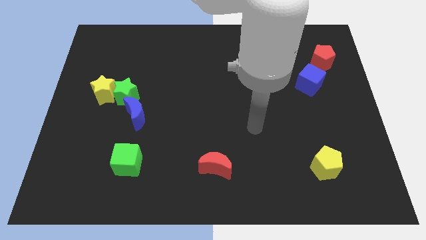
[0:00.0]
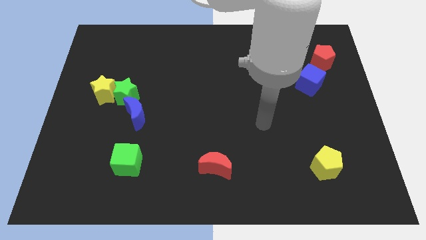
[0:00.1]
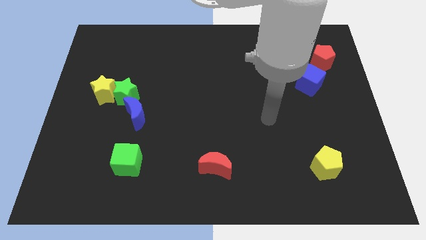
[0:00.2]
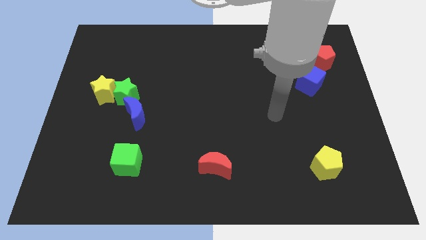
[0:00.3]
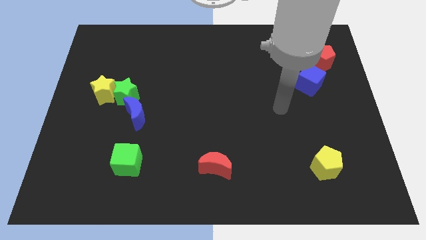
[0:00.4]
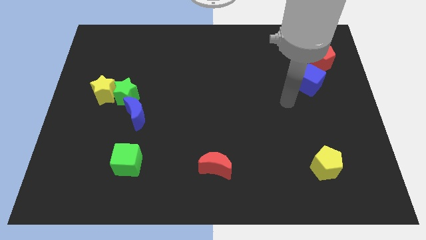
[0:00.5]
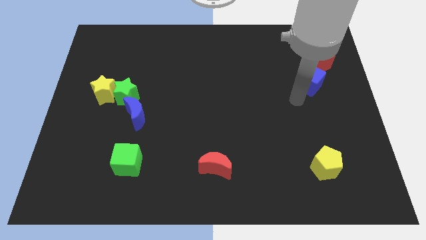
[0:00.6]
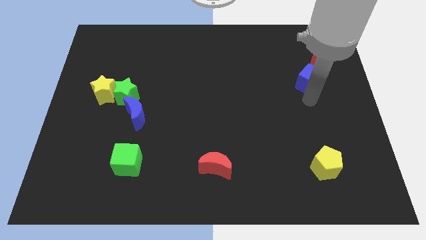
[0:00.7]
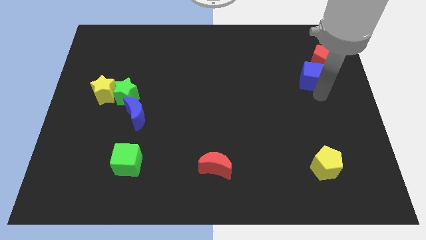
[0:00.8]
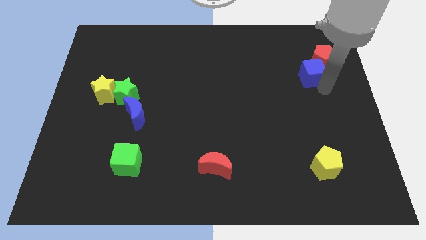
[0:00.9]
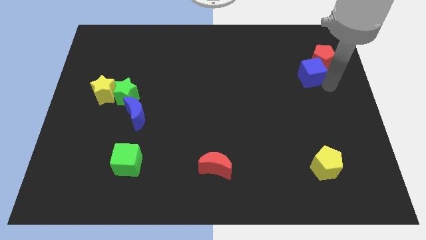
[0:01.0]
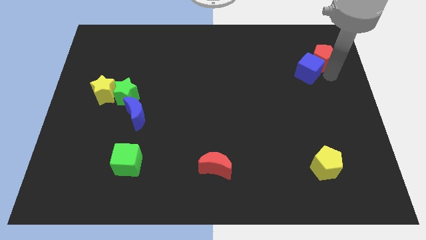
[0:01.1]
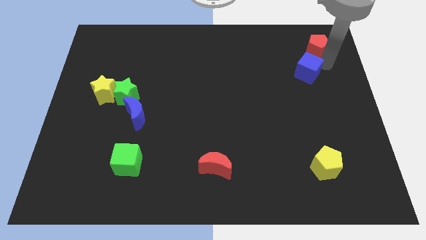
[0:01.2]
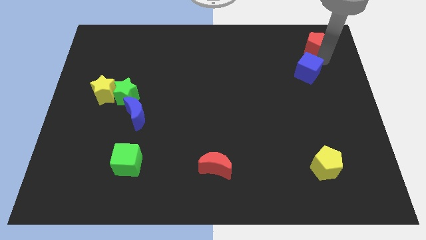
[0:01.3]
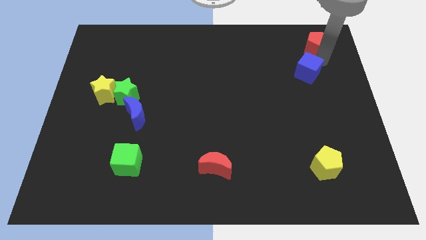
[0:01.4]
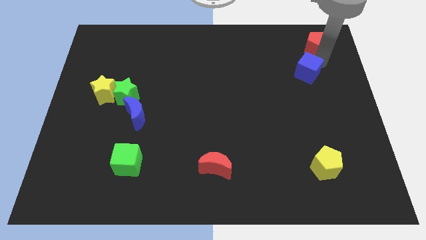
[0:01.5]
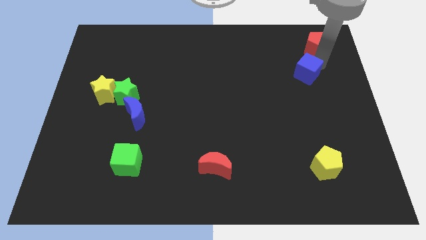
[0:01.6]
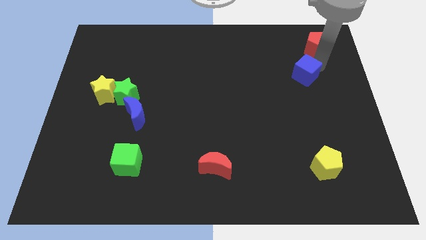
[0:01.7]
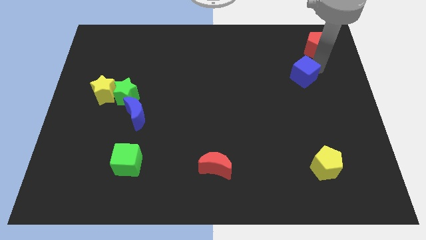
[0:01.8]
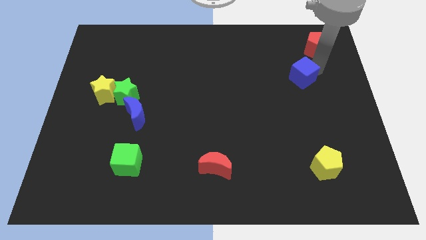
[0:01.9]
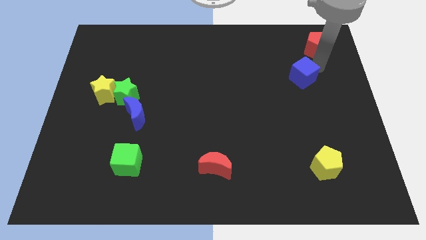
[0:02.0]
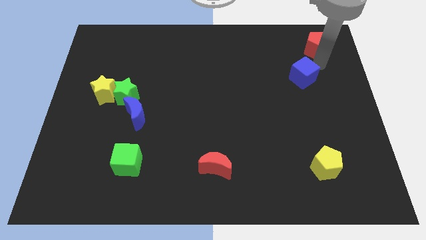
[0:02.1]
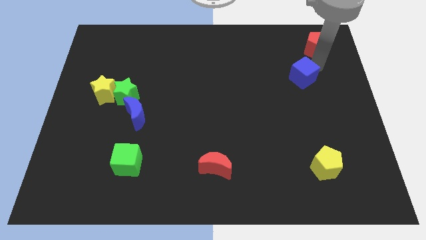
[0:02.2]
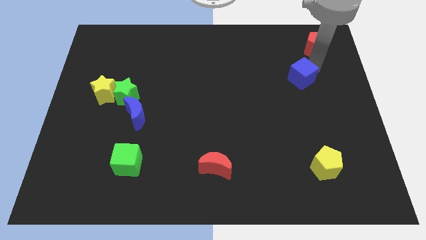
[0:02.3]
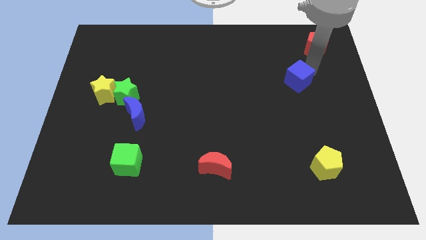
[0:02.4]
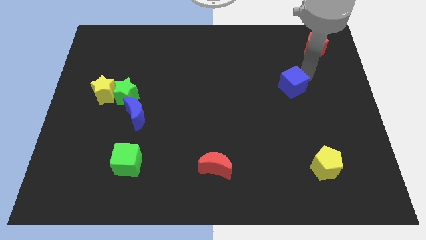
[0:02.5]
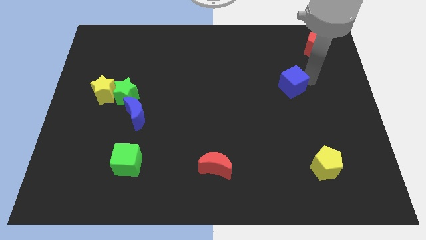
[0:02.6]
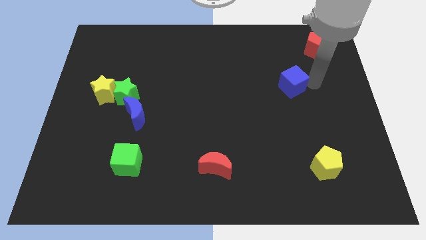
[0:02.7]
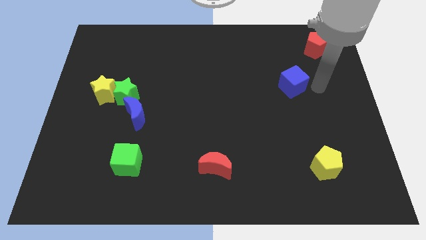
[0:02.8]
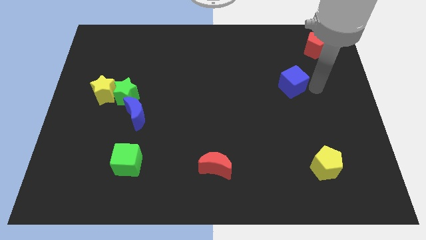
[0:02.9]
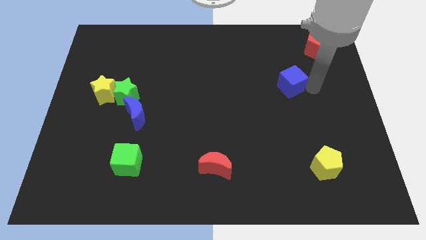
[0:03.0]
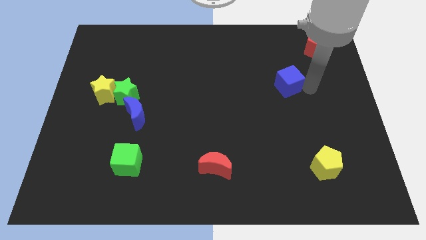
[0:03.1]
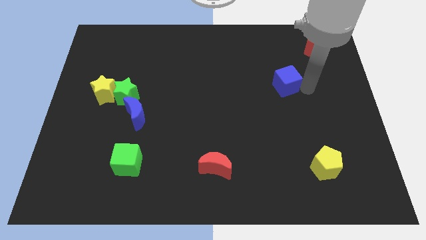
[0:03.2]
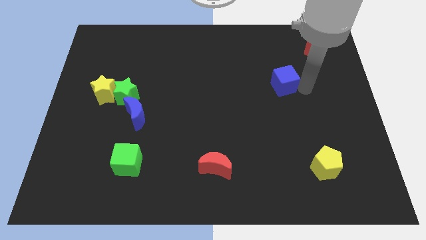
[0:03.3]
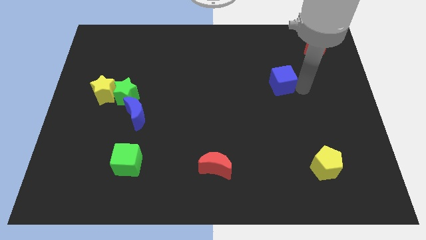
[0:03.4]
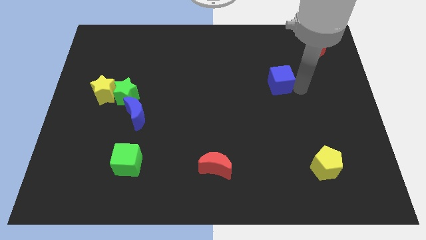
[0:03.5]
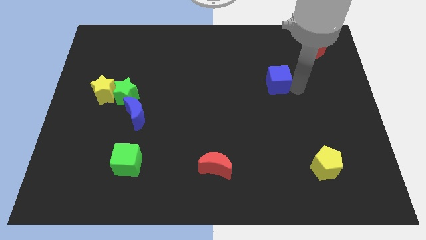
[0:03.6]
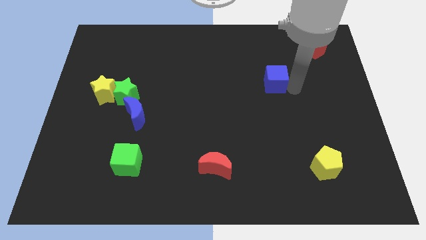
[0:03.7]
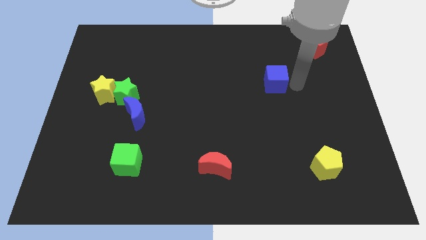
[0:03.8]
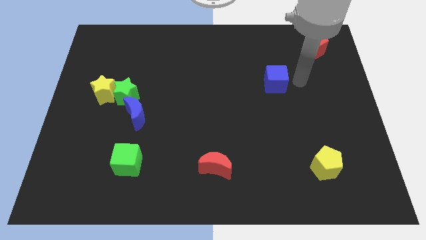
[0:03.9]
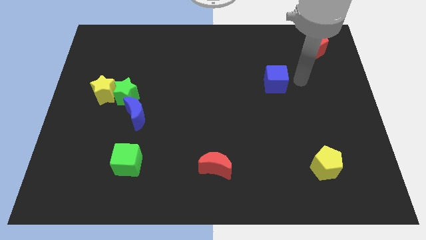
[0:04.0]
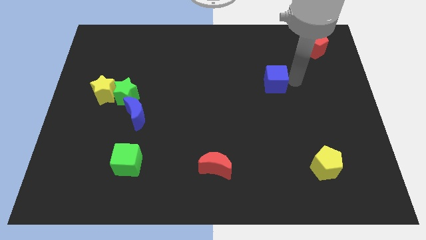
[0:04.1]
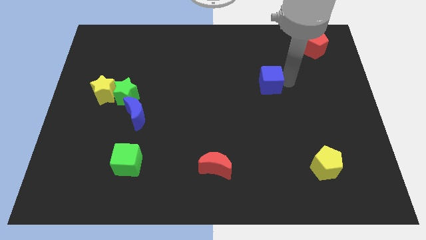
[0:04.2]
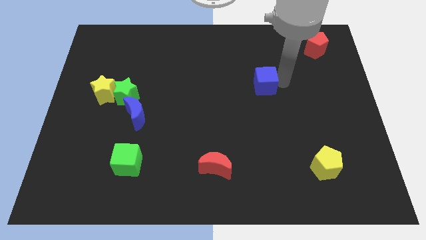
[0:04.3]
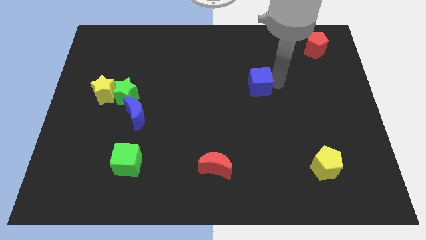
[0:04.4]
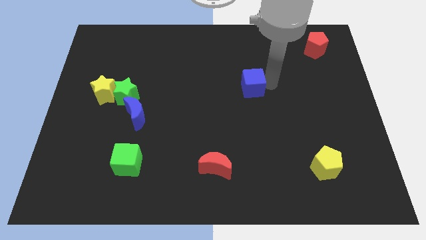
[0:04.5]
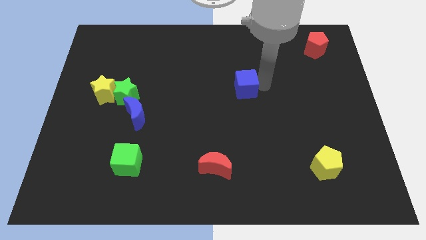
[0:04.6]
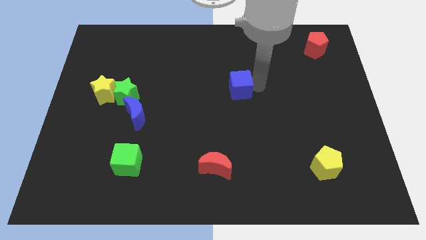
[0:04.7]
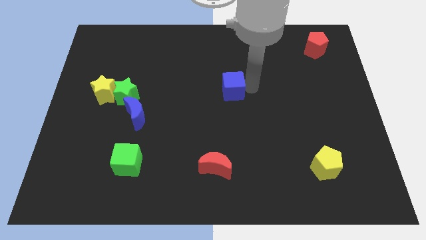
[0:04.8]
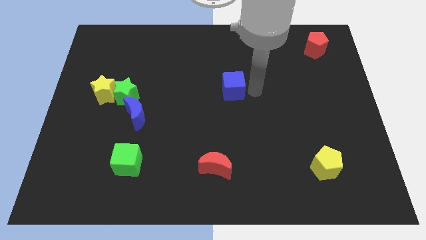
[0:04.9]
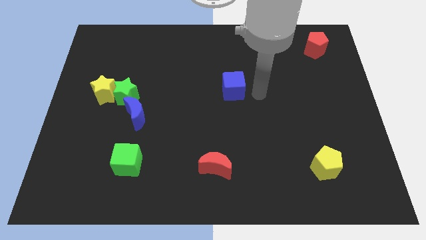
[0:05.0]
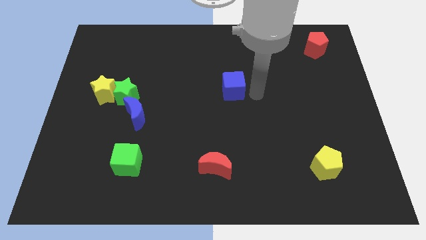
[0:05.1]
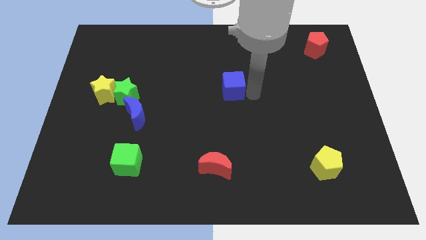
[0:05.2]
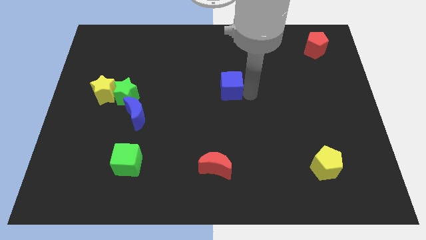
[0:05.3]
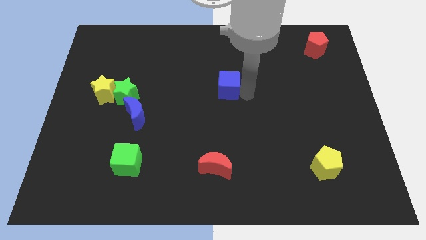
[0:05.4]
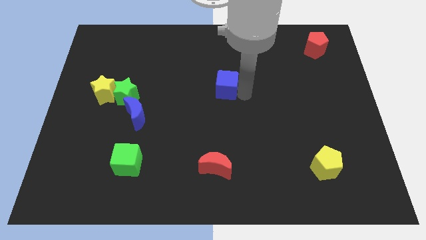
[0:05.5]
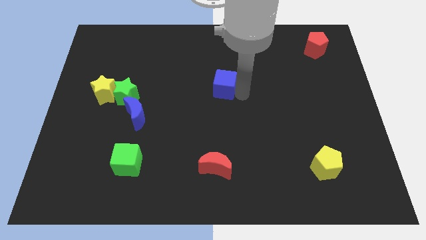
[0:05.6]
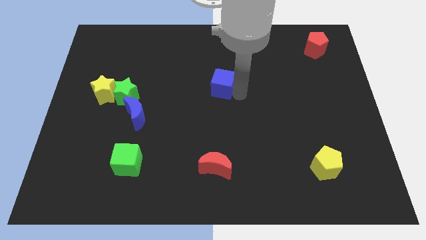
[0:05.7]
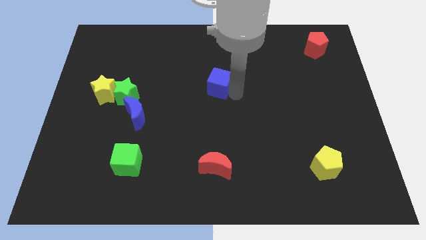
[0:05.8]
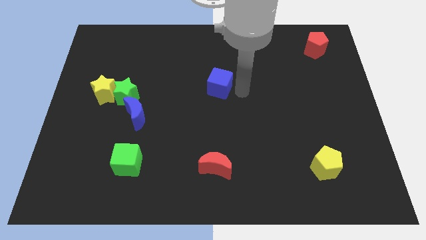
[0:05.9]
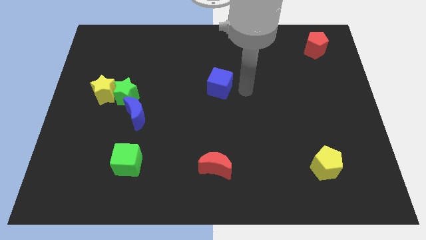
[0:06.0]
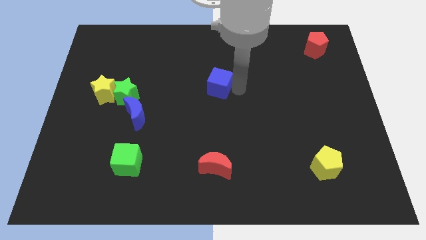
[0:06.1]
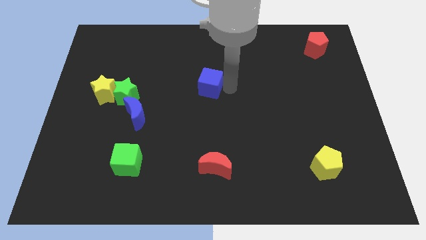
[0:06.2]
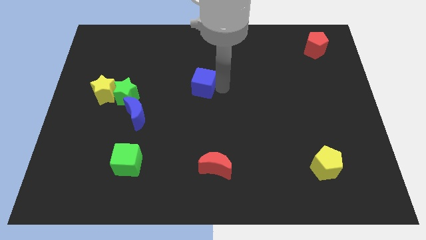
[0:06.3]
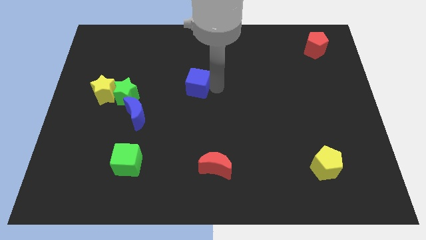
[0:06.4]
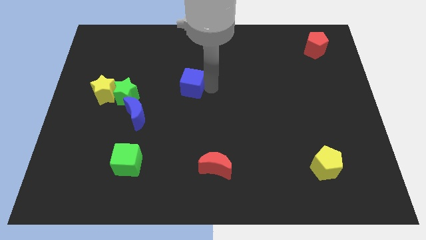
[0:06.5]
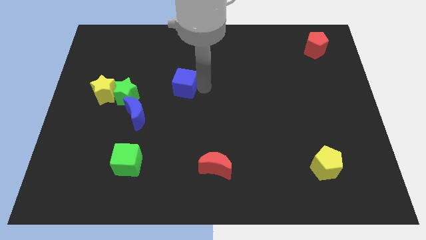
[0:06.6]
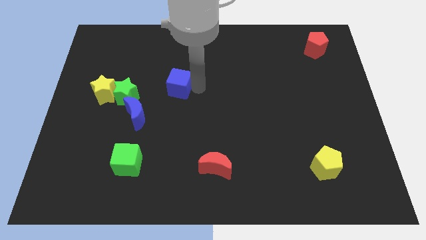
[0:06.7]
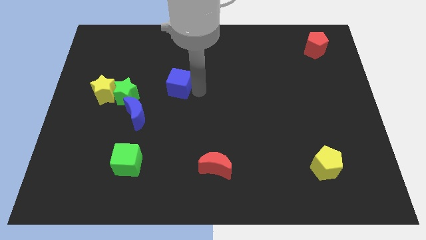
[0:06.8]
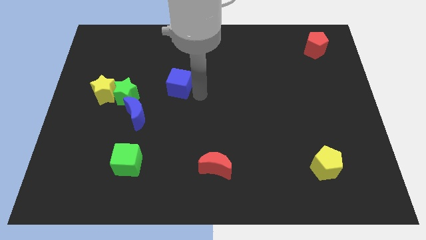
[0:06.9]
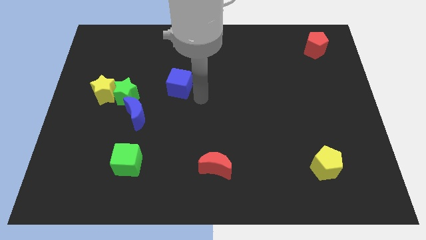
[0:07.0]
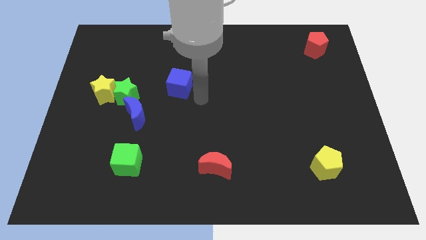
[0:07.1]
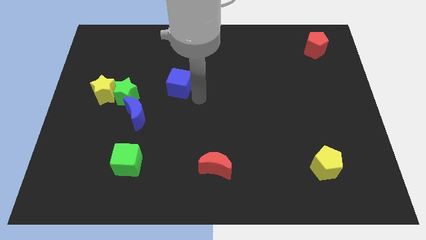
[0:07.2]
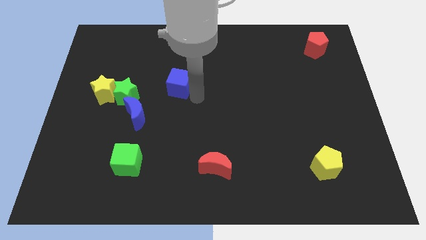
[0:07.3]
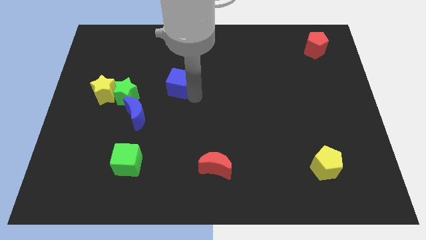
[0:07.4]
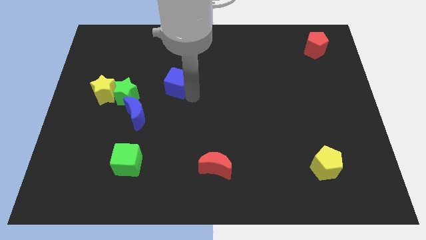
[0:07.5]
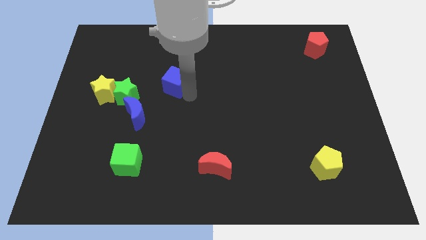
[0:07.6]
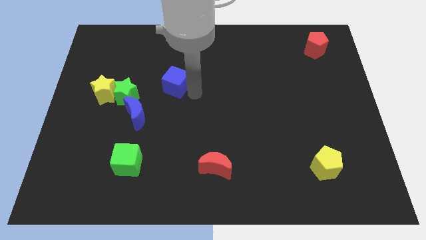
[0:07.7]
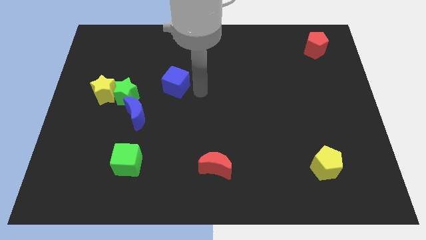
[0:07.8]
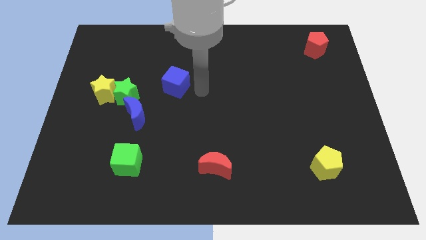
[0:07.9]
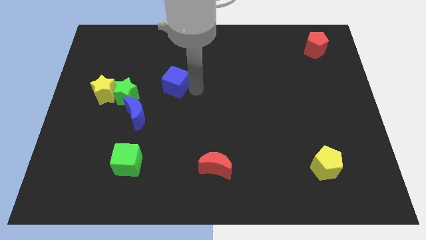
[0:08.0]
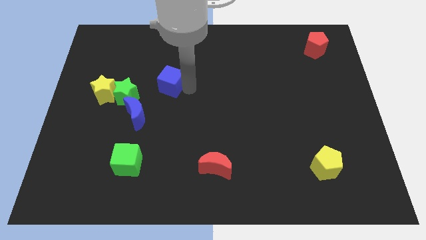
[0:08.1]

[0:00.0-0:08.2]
move the blue cube to the top right side of the green star
